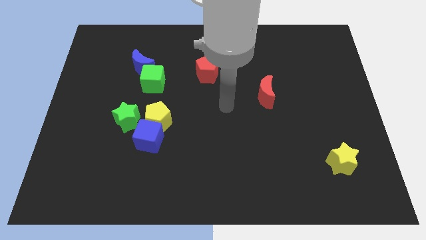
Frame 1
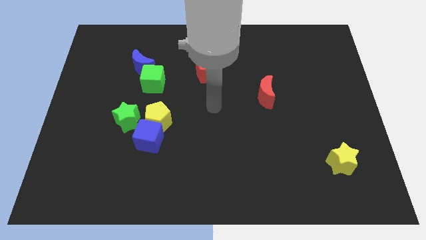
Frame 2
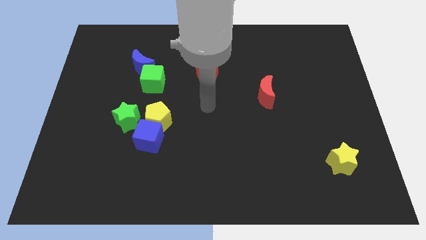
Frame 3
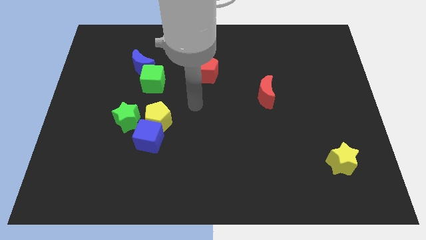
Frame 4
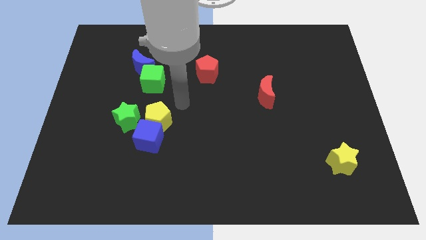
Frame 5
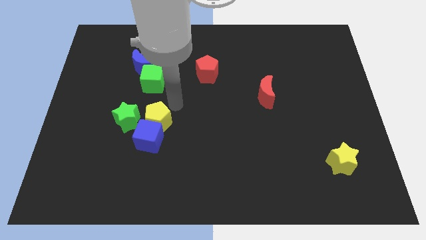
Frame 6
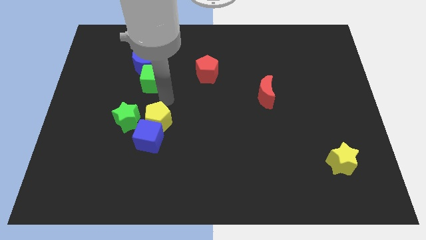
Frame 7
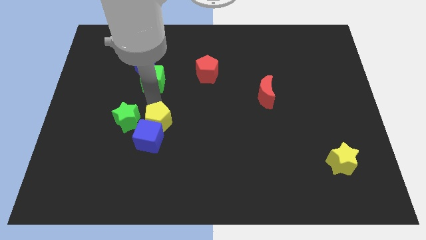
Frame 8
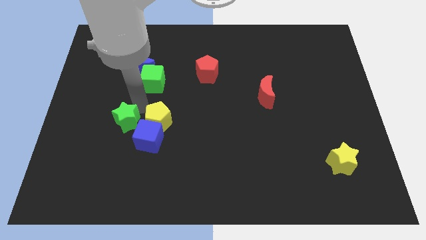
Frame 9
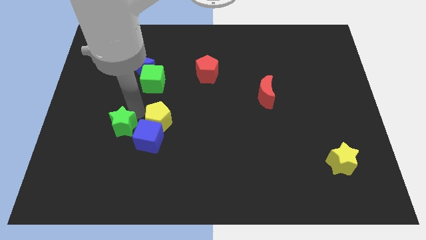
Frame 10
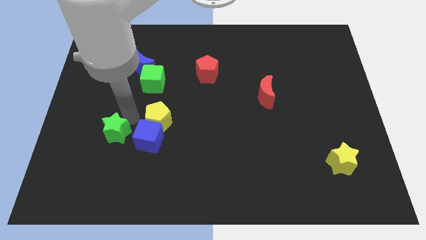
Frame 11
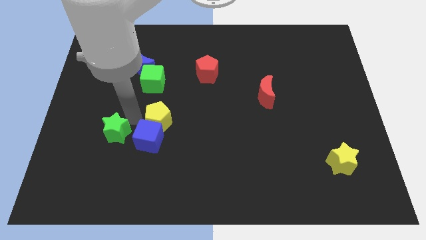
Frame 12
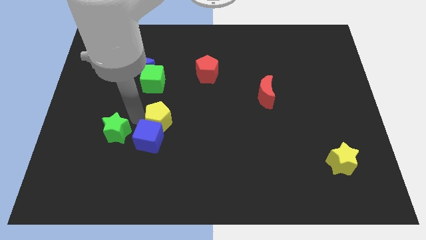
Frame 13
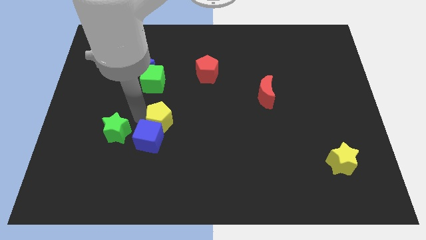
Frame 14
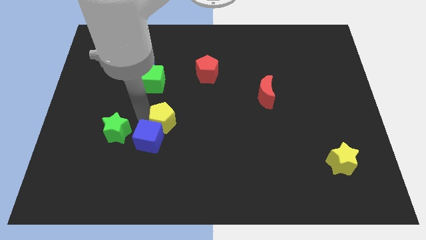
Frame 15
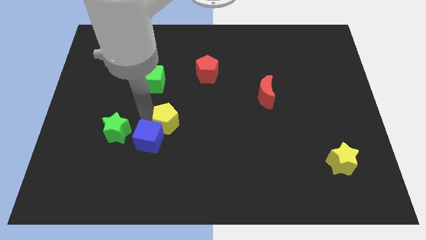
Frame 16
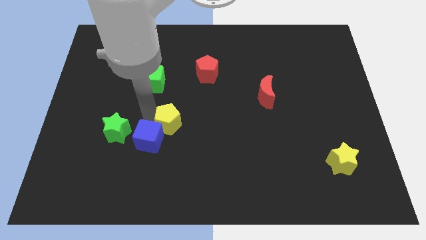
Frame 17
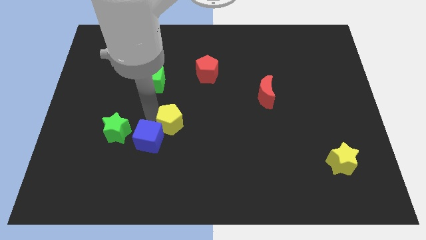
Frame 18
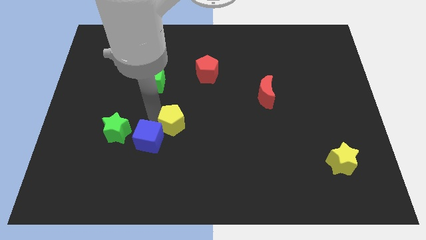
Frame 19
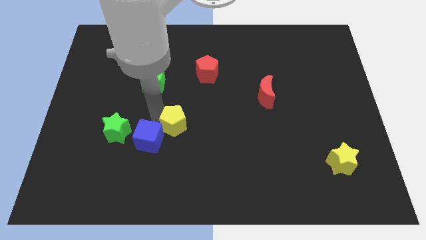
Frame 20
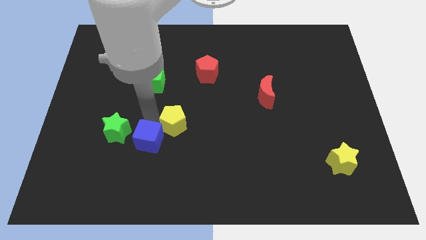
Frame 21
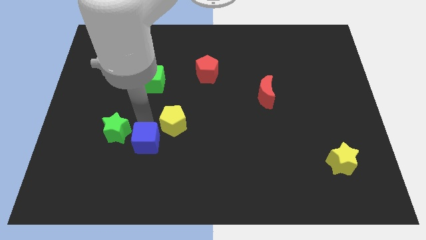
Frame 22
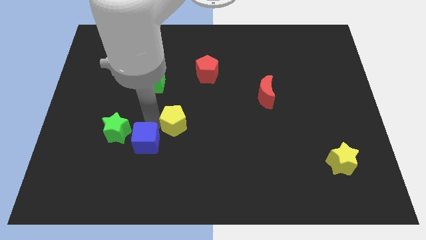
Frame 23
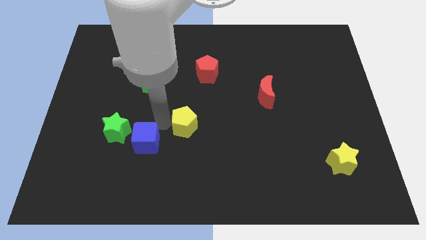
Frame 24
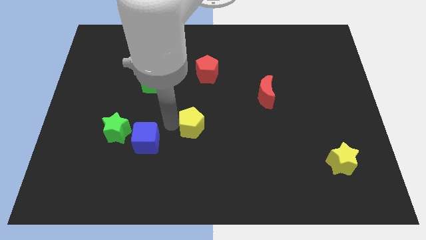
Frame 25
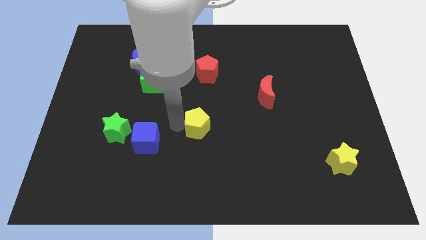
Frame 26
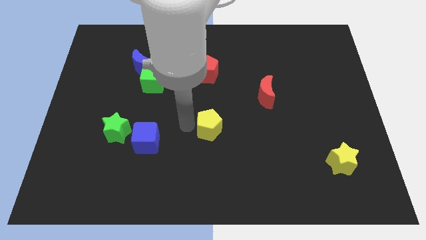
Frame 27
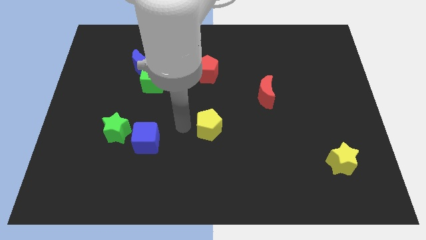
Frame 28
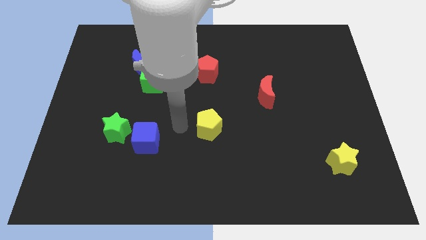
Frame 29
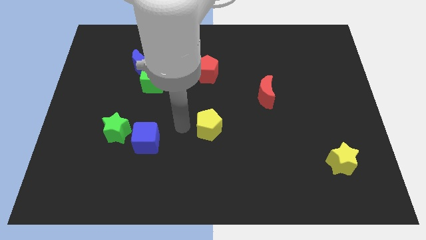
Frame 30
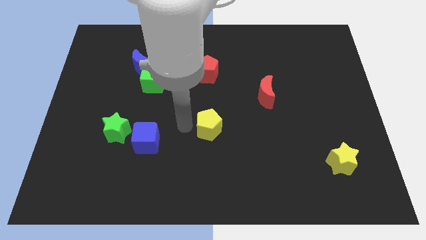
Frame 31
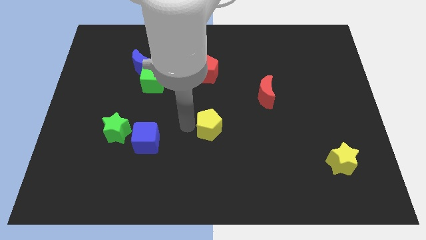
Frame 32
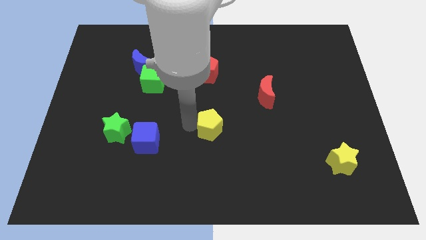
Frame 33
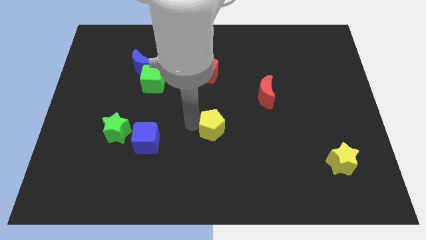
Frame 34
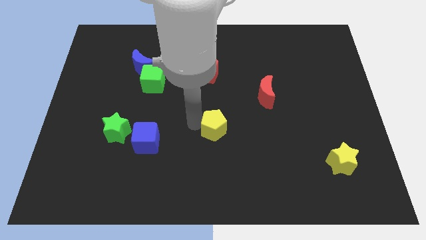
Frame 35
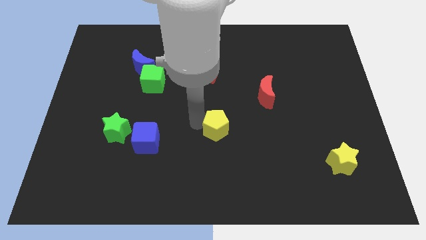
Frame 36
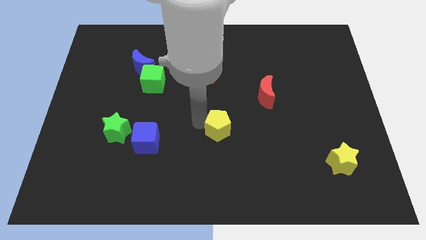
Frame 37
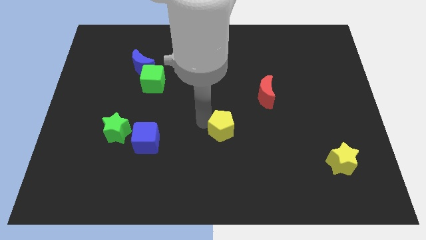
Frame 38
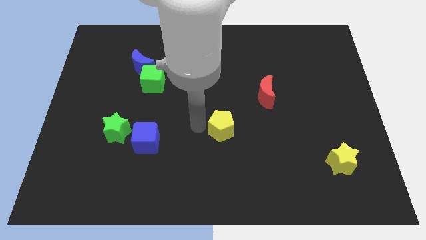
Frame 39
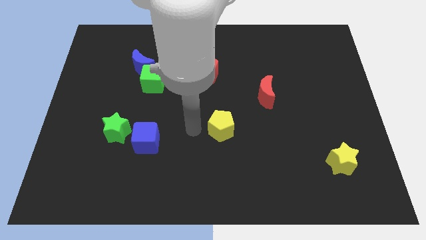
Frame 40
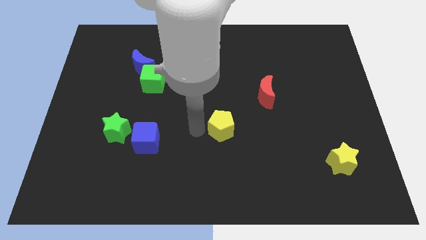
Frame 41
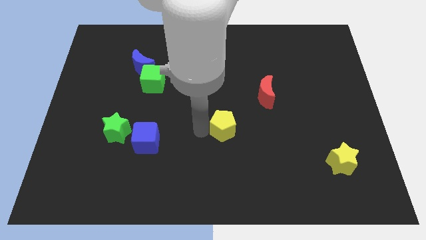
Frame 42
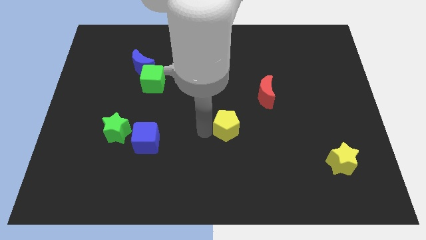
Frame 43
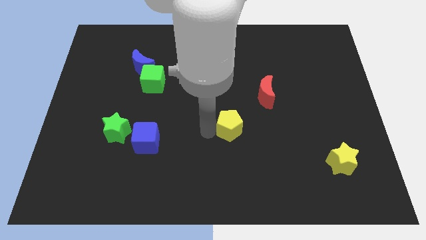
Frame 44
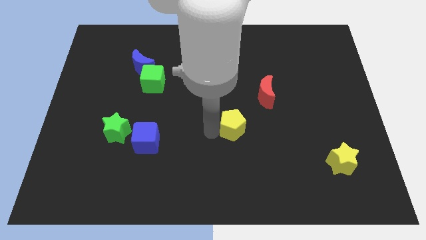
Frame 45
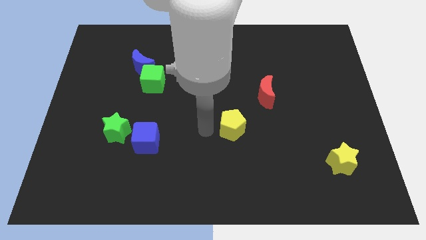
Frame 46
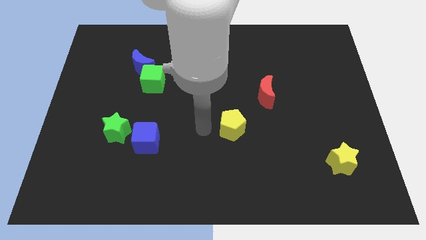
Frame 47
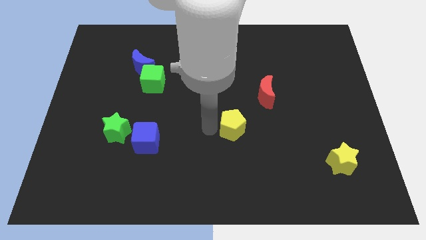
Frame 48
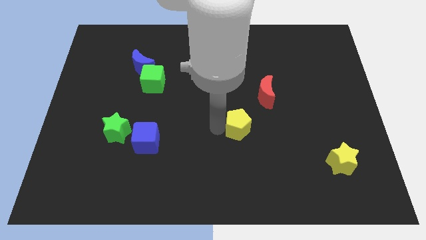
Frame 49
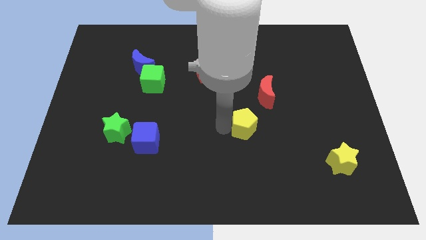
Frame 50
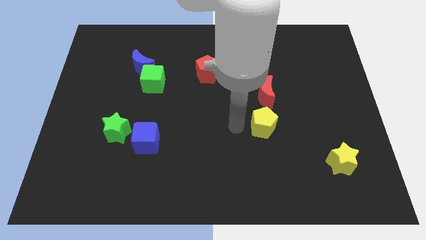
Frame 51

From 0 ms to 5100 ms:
slide the yellow pentagon right

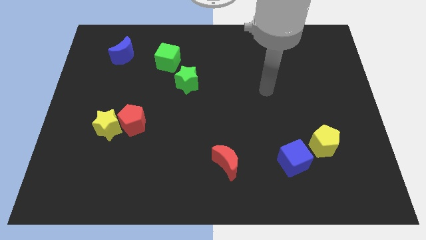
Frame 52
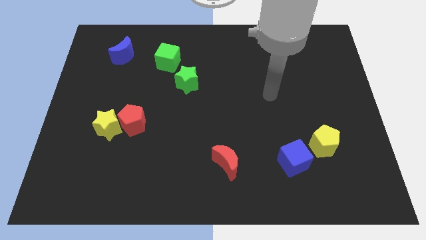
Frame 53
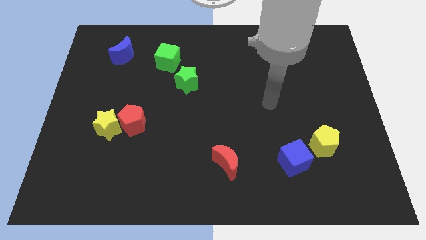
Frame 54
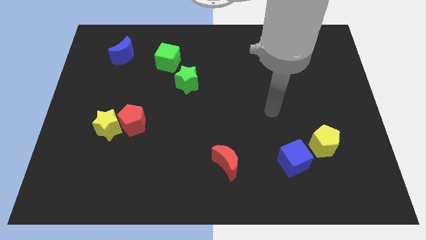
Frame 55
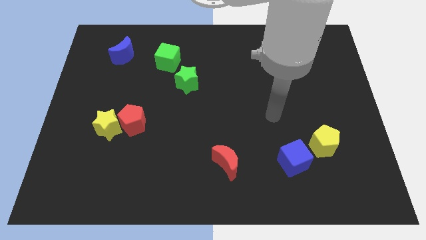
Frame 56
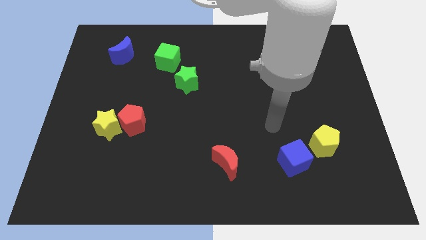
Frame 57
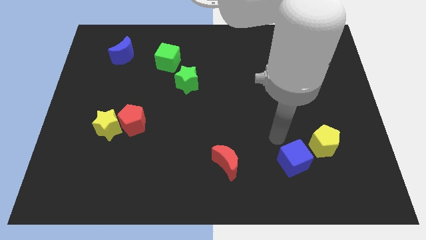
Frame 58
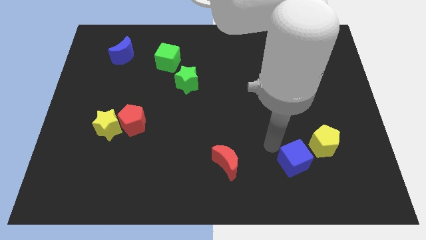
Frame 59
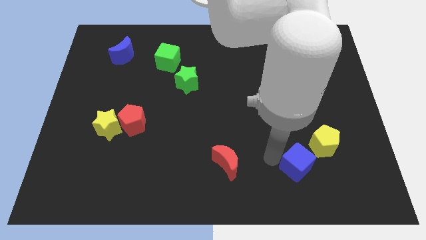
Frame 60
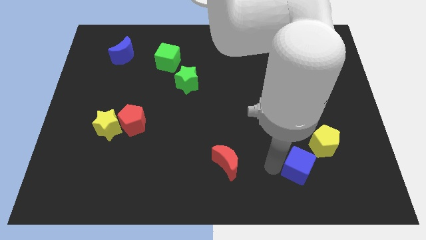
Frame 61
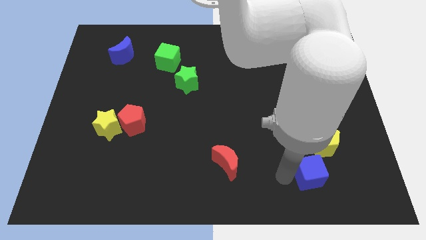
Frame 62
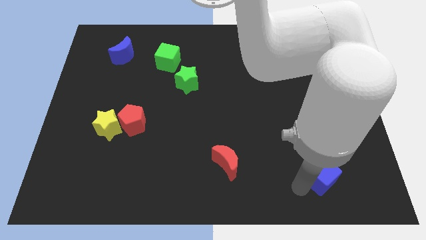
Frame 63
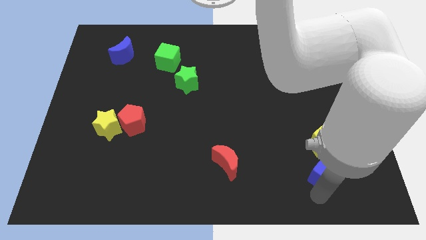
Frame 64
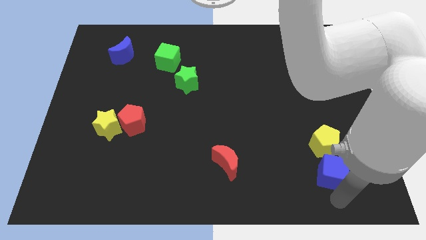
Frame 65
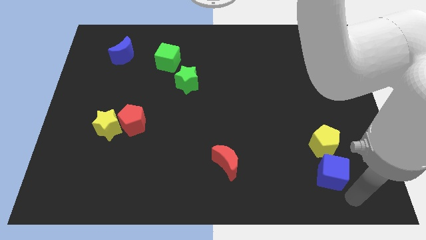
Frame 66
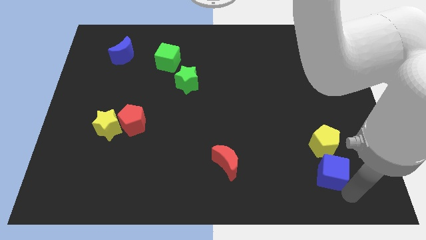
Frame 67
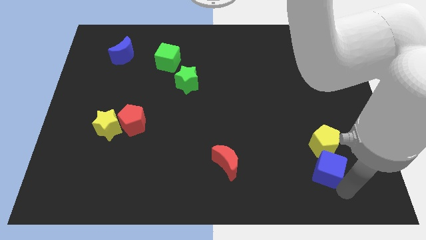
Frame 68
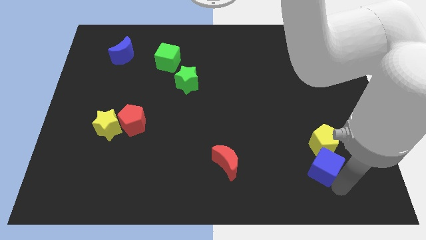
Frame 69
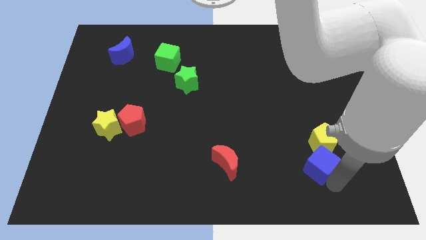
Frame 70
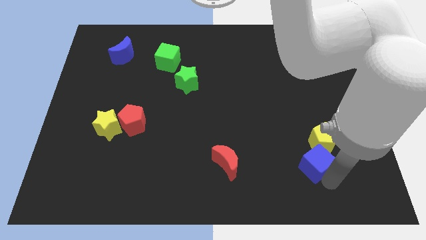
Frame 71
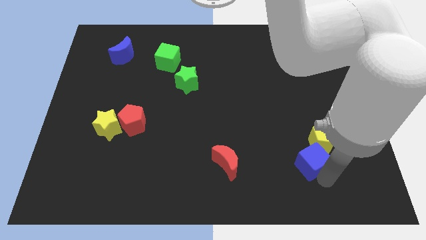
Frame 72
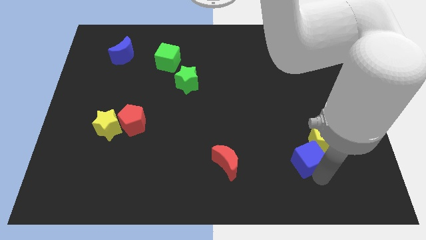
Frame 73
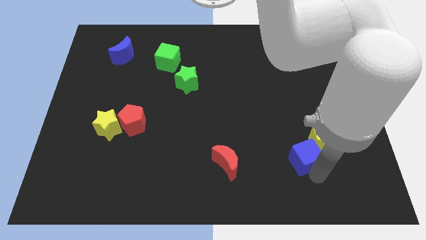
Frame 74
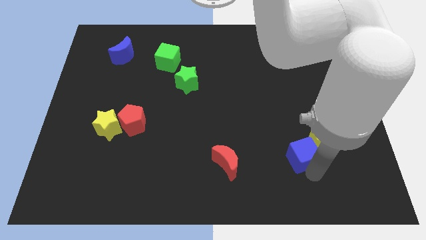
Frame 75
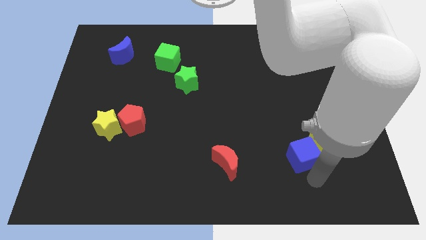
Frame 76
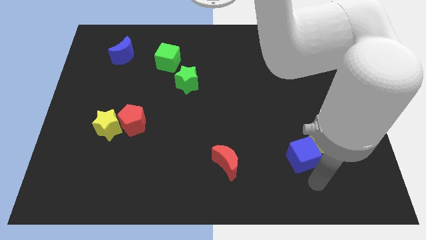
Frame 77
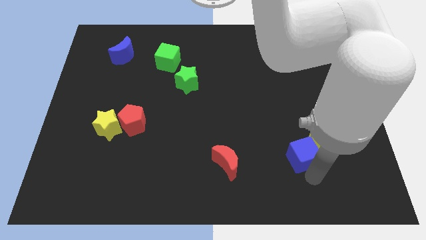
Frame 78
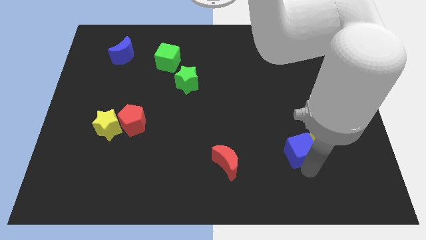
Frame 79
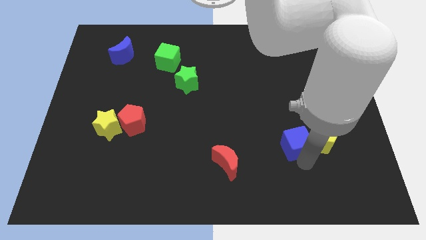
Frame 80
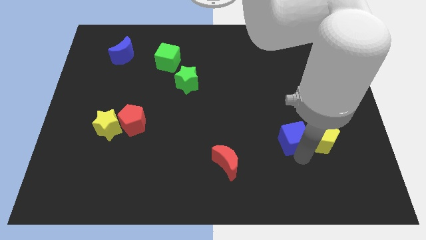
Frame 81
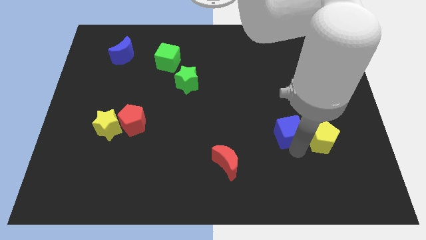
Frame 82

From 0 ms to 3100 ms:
slide the blue cube upwards a little

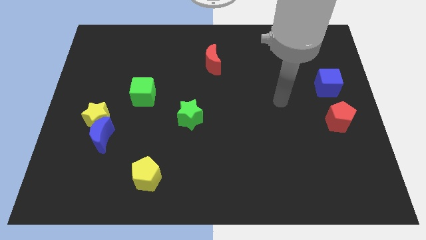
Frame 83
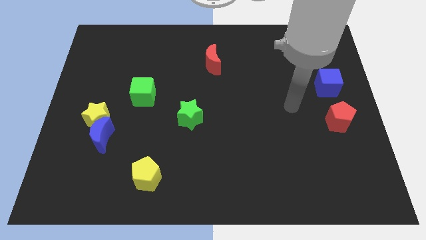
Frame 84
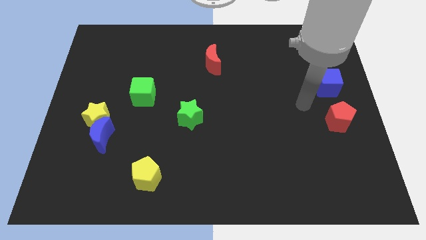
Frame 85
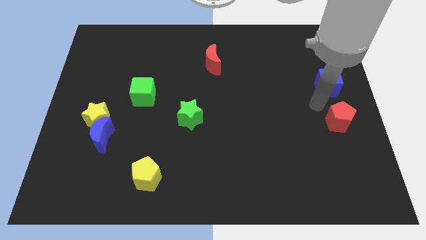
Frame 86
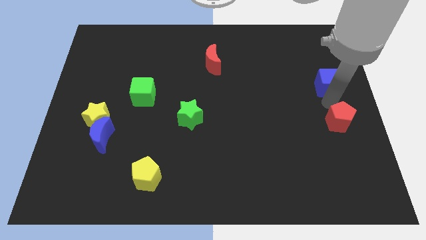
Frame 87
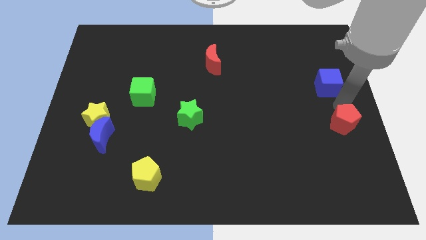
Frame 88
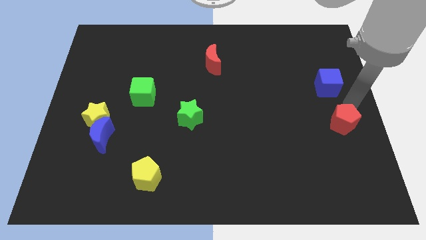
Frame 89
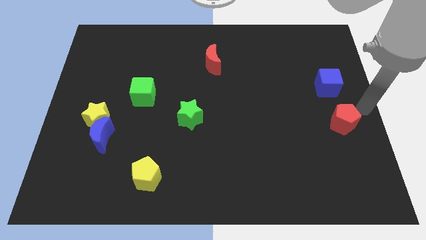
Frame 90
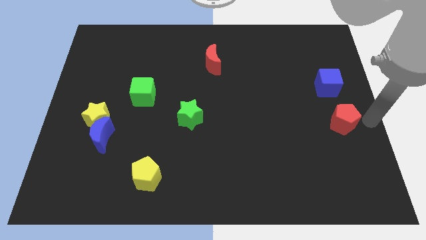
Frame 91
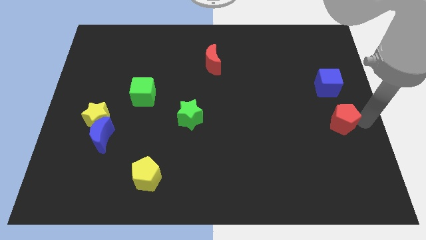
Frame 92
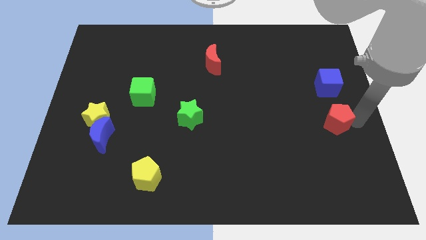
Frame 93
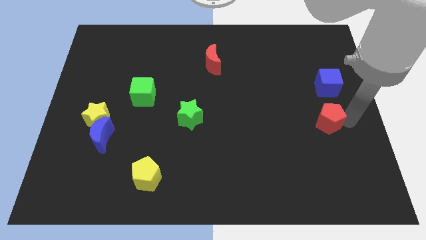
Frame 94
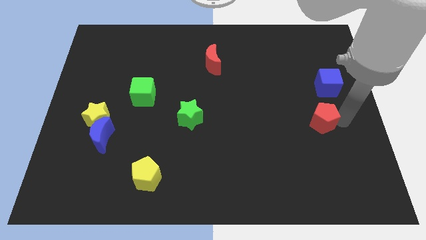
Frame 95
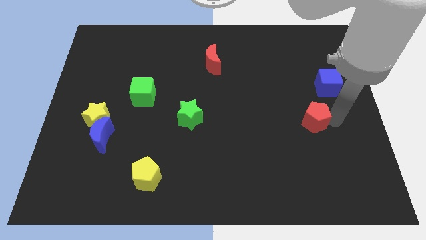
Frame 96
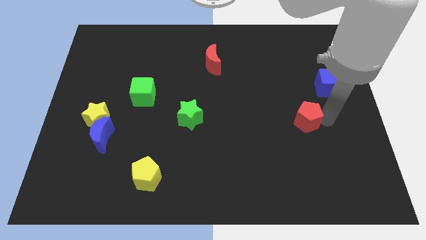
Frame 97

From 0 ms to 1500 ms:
push the red pentagon to the left a bit
